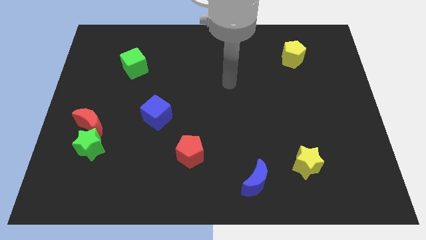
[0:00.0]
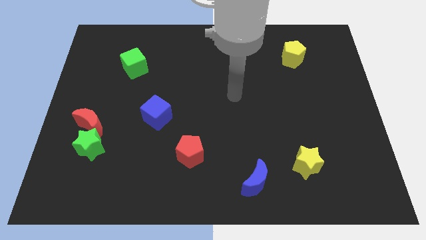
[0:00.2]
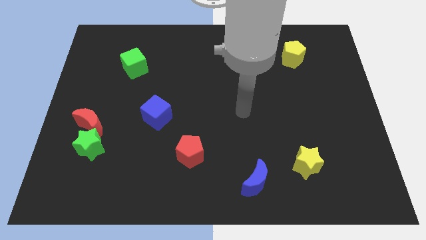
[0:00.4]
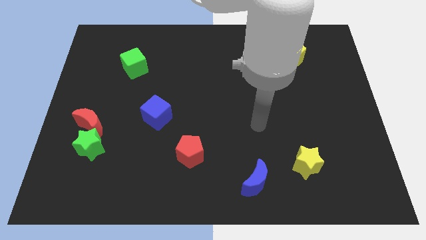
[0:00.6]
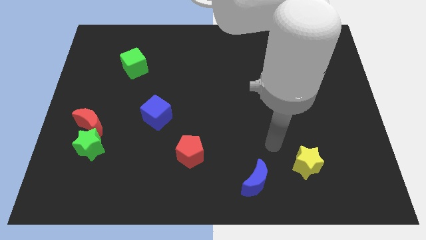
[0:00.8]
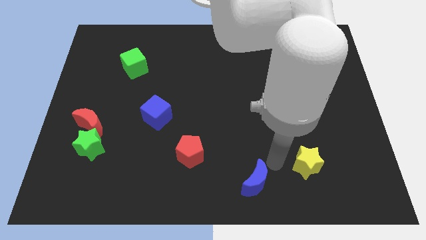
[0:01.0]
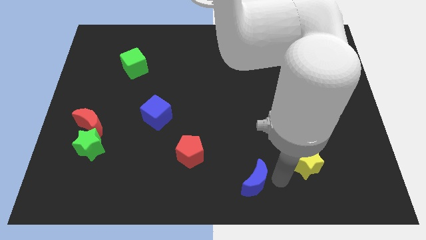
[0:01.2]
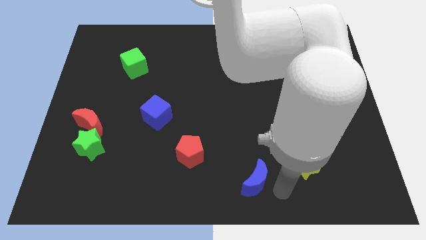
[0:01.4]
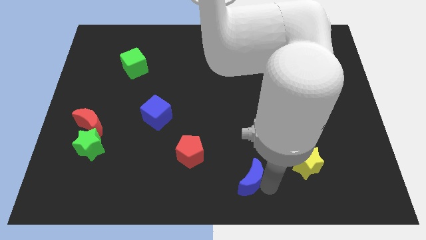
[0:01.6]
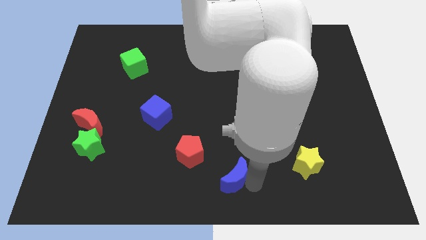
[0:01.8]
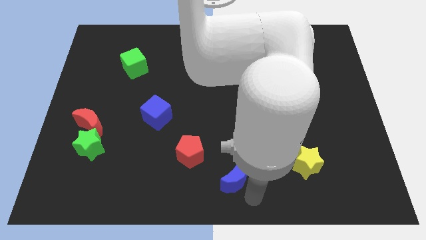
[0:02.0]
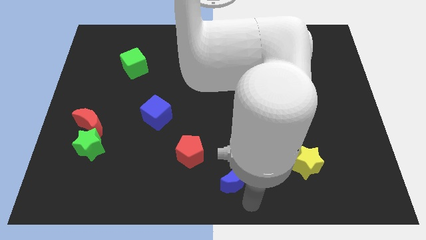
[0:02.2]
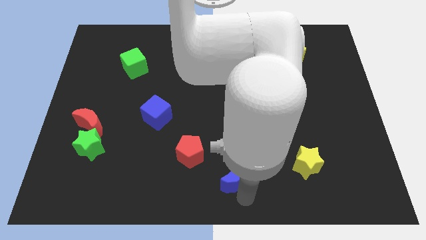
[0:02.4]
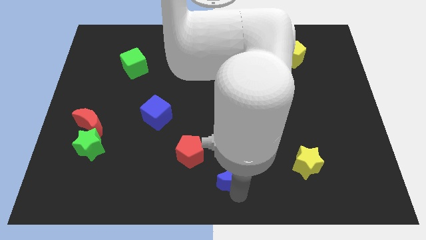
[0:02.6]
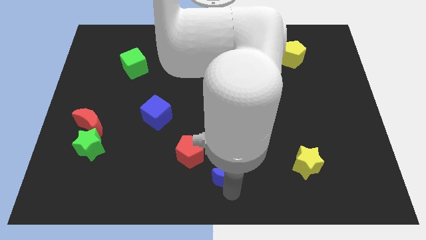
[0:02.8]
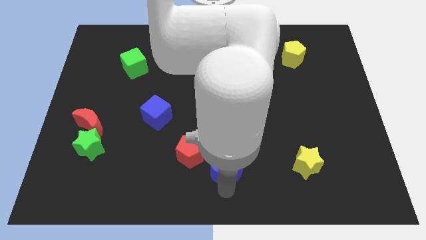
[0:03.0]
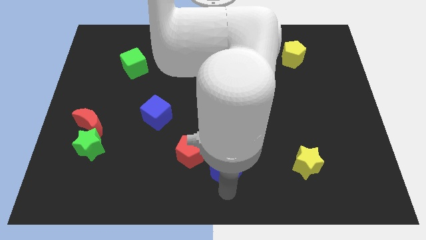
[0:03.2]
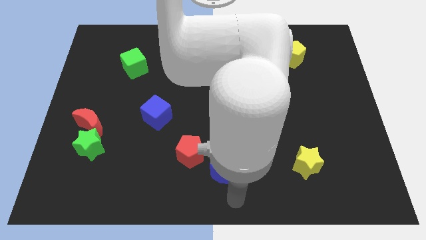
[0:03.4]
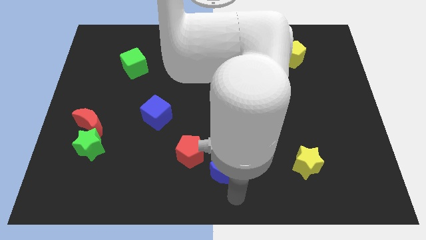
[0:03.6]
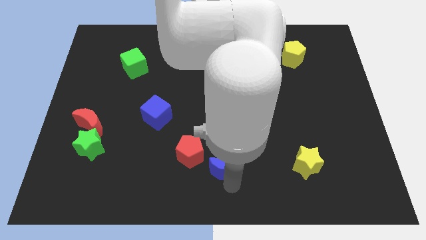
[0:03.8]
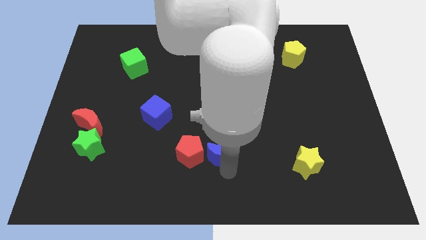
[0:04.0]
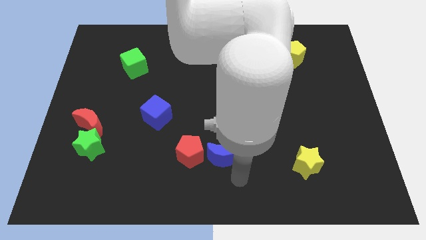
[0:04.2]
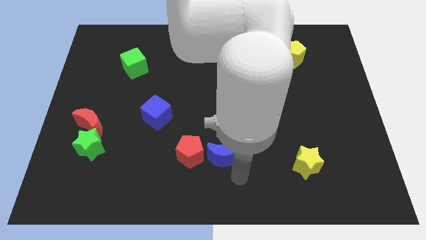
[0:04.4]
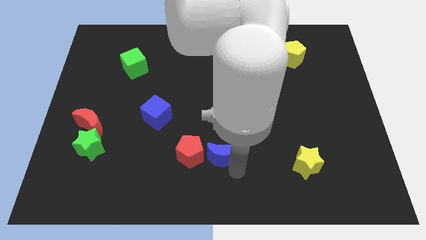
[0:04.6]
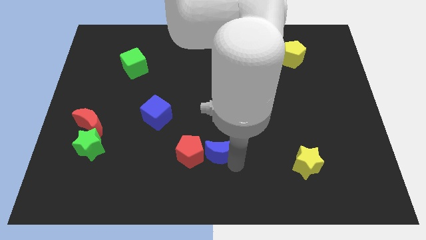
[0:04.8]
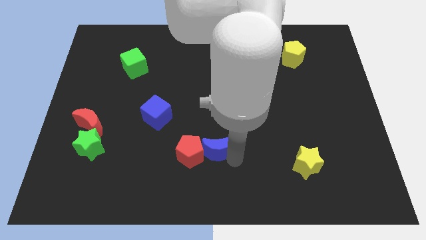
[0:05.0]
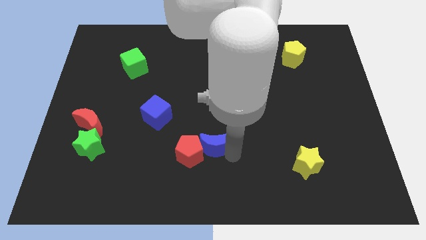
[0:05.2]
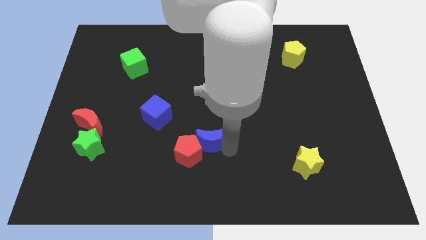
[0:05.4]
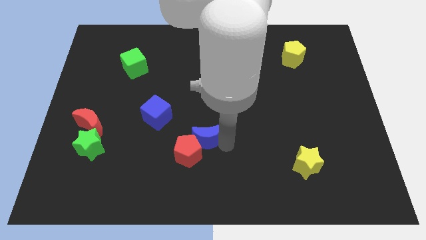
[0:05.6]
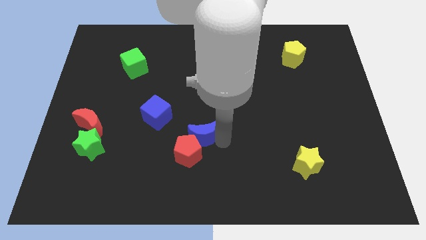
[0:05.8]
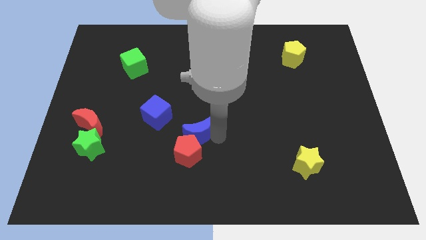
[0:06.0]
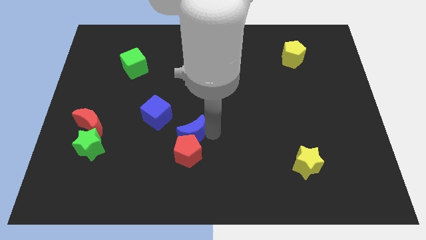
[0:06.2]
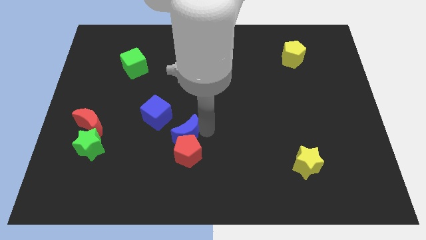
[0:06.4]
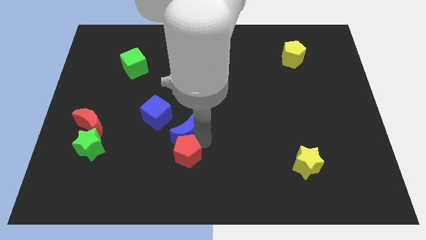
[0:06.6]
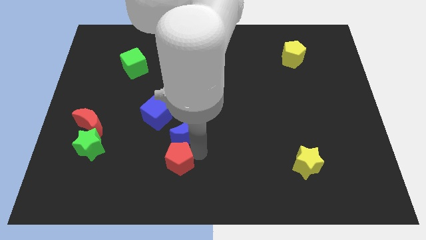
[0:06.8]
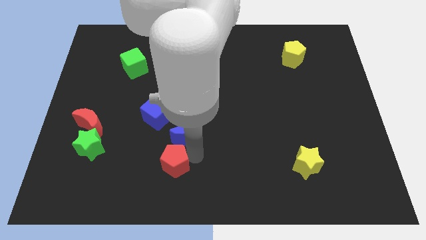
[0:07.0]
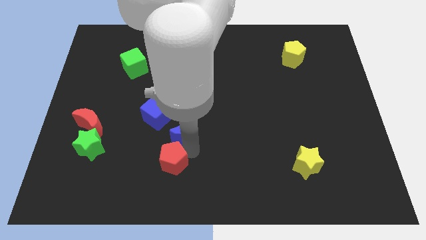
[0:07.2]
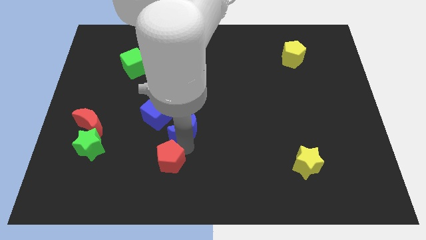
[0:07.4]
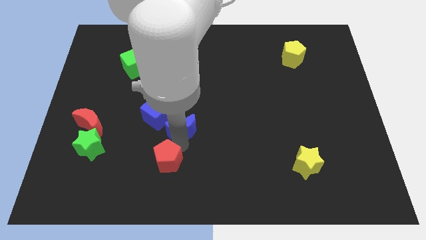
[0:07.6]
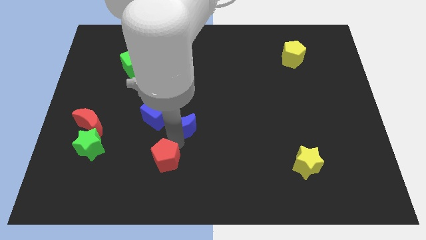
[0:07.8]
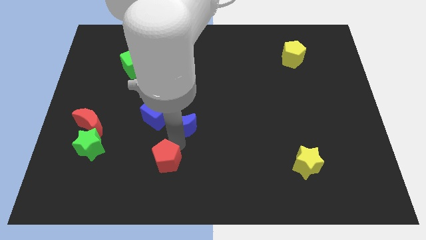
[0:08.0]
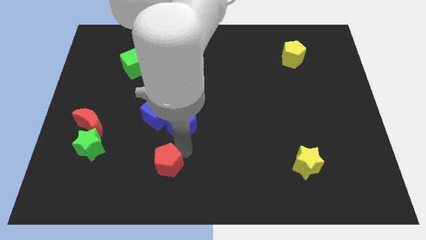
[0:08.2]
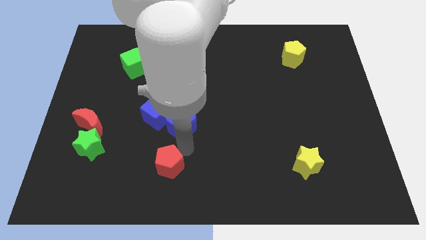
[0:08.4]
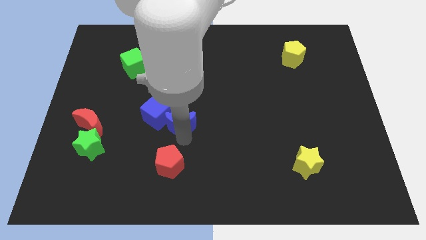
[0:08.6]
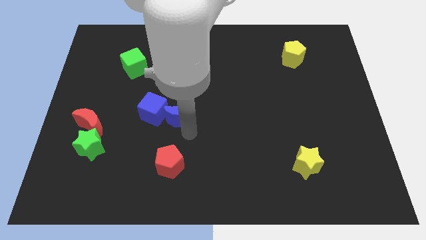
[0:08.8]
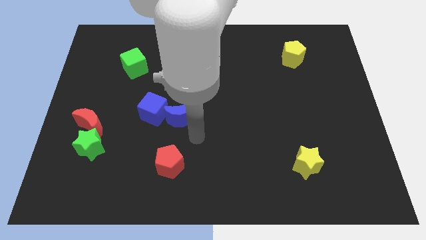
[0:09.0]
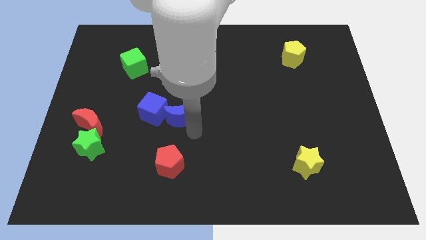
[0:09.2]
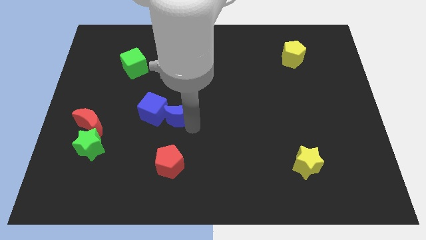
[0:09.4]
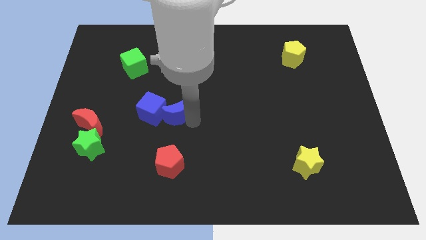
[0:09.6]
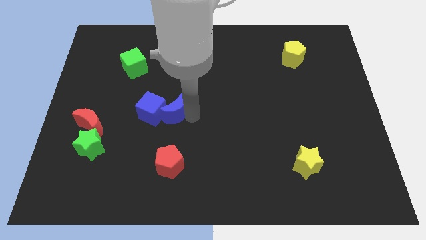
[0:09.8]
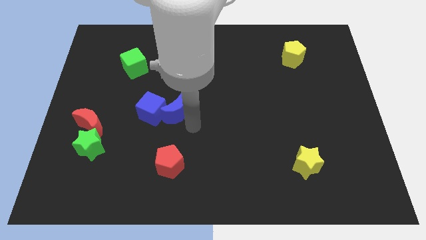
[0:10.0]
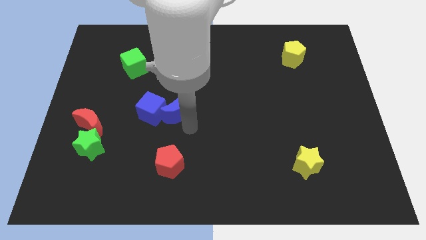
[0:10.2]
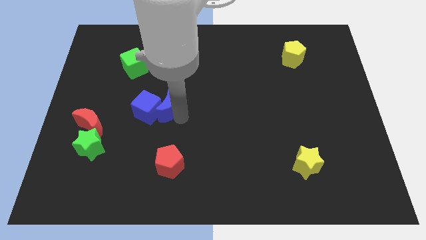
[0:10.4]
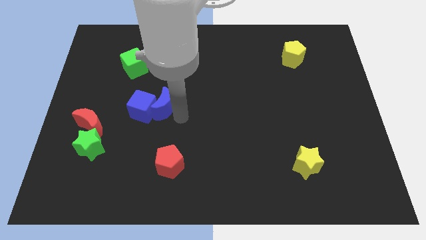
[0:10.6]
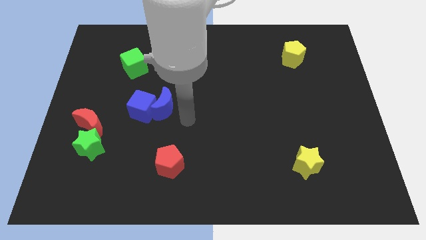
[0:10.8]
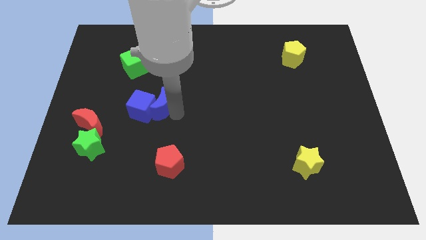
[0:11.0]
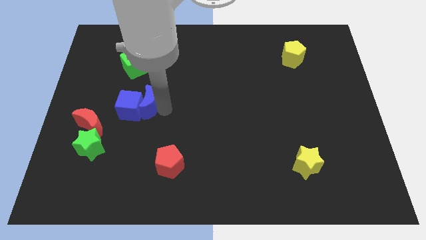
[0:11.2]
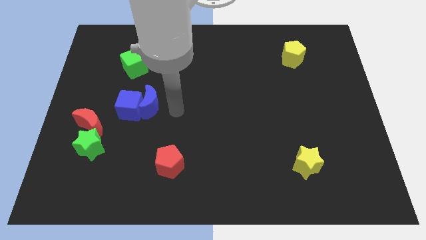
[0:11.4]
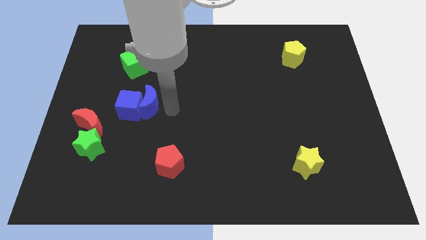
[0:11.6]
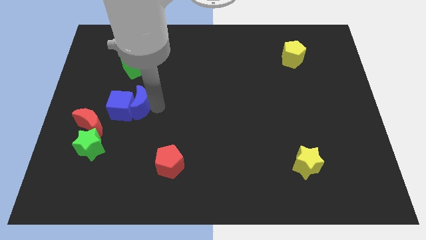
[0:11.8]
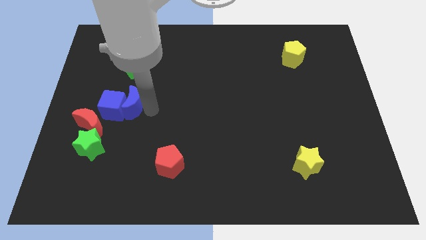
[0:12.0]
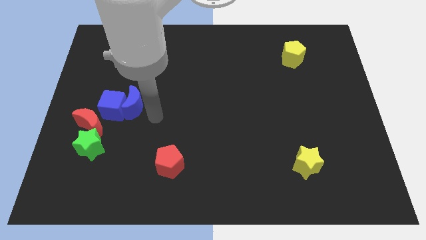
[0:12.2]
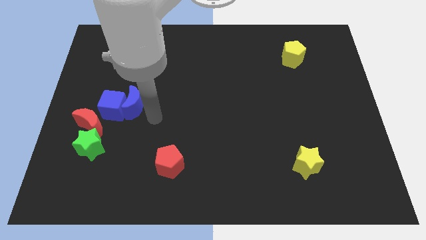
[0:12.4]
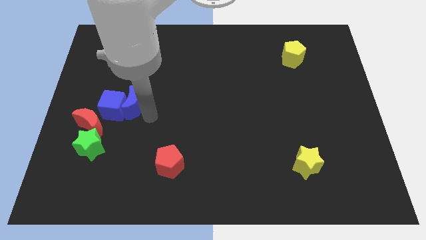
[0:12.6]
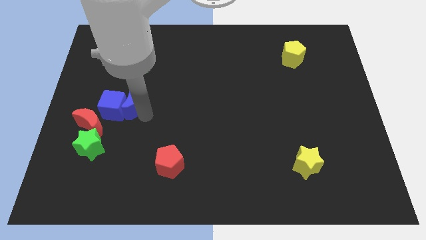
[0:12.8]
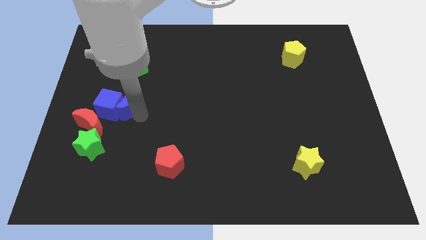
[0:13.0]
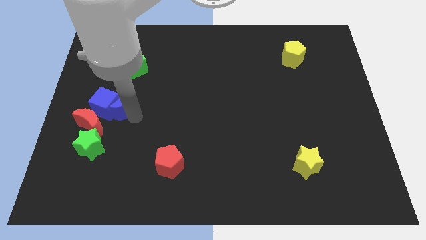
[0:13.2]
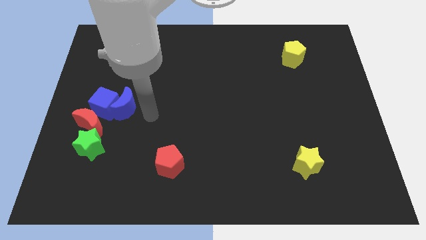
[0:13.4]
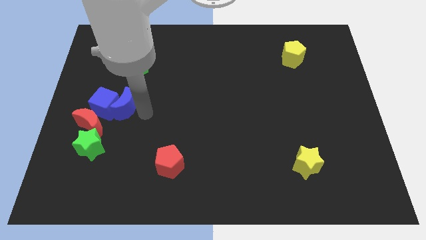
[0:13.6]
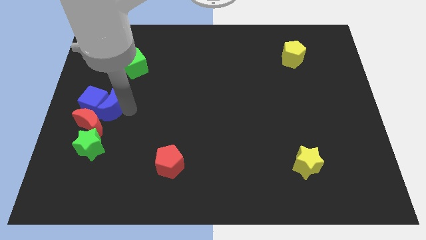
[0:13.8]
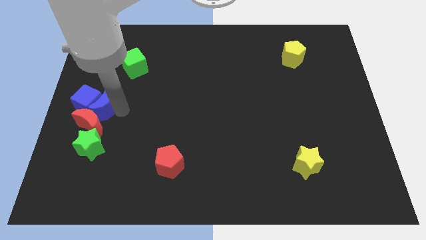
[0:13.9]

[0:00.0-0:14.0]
move the blue moon to the center left

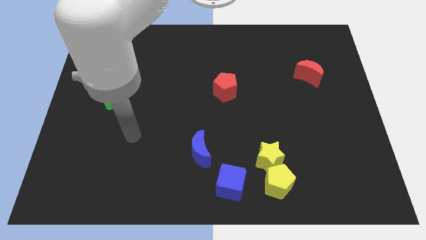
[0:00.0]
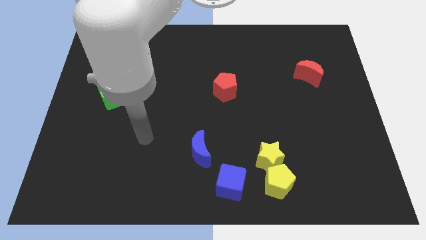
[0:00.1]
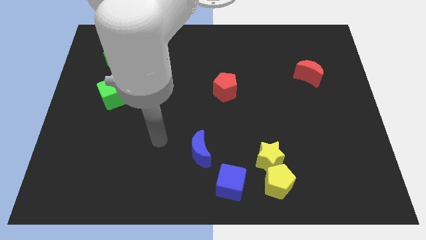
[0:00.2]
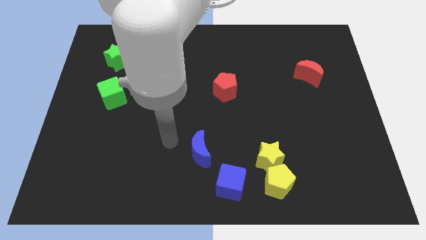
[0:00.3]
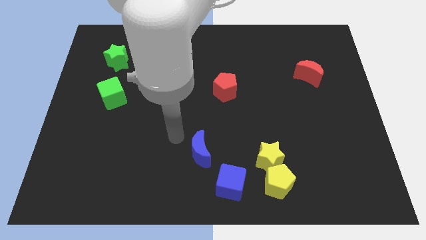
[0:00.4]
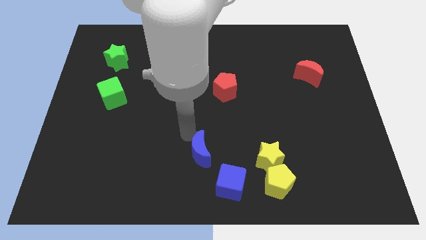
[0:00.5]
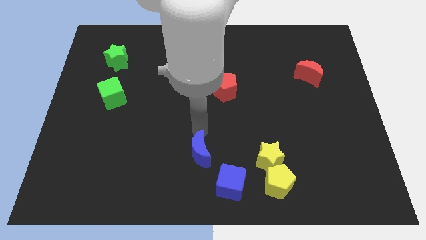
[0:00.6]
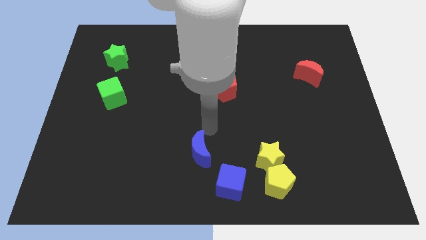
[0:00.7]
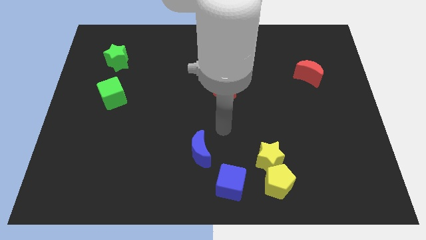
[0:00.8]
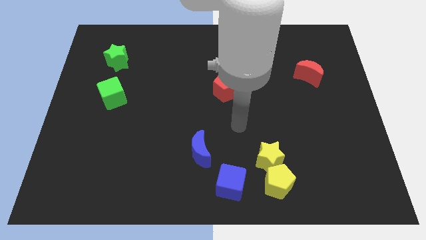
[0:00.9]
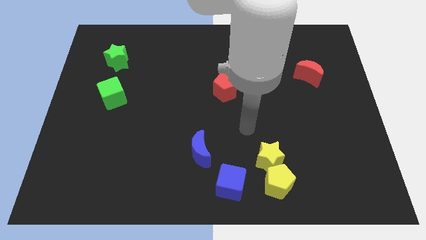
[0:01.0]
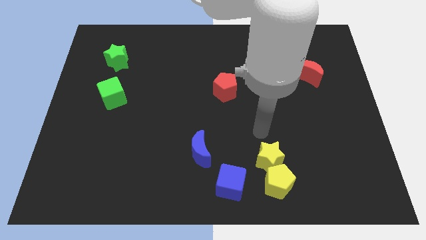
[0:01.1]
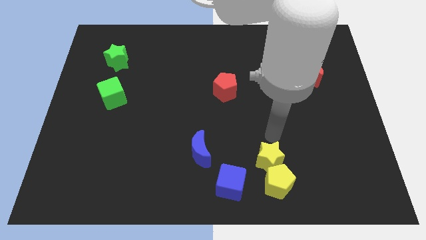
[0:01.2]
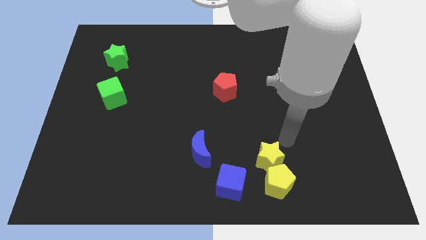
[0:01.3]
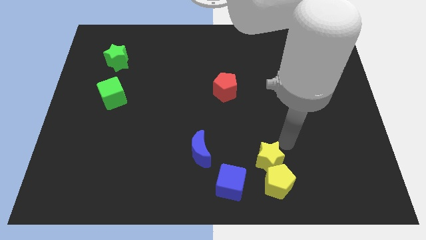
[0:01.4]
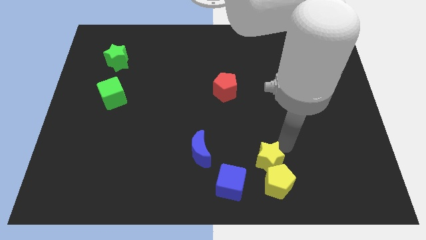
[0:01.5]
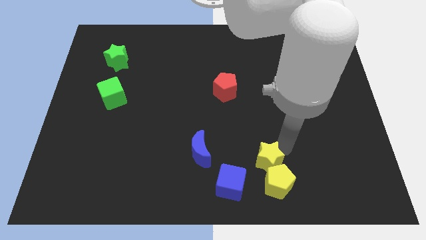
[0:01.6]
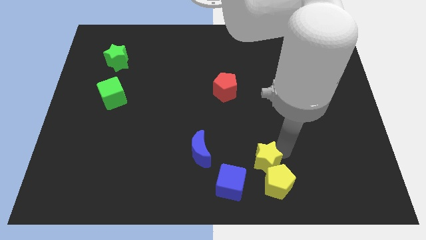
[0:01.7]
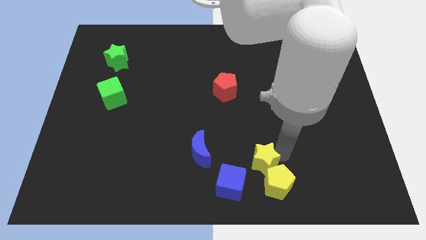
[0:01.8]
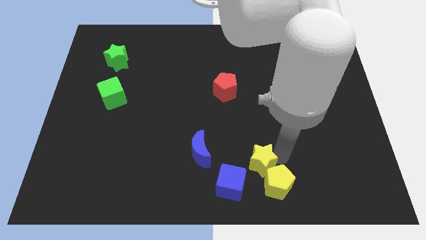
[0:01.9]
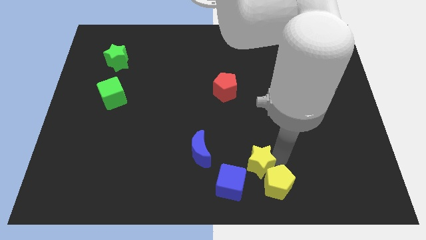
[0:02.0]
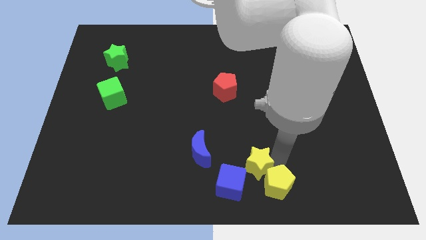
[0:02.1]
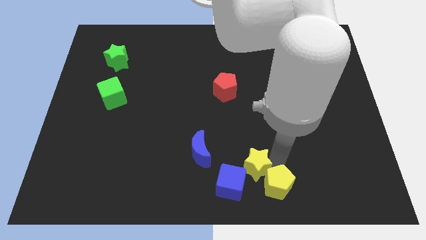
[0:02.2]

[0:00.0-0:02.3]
put the yellow star to the bottom side
